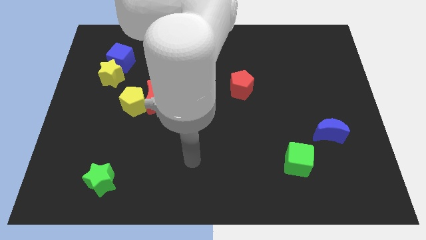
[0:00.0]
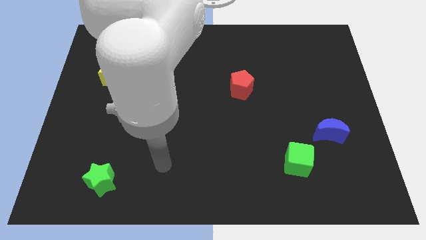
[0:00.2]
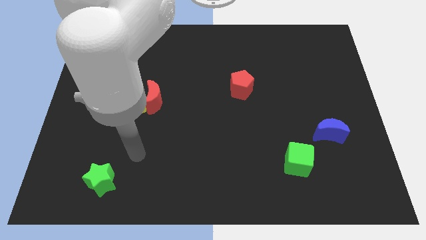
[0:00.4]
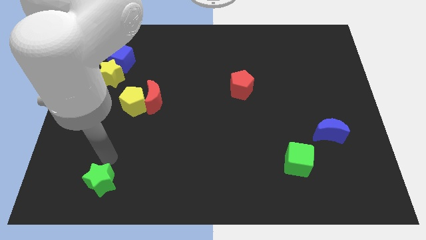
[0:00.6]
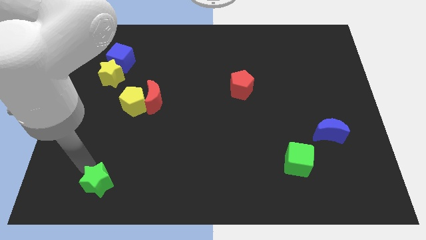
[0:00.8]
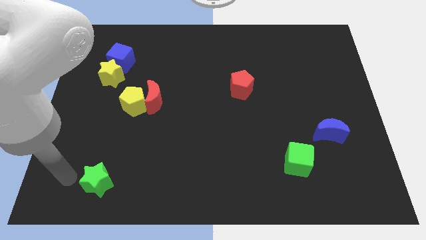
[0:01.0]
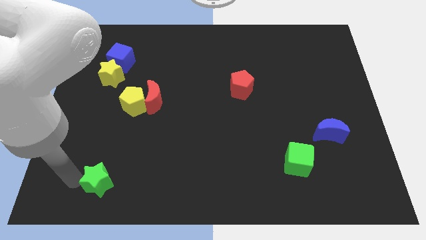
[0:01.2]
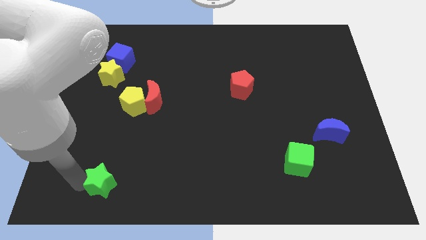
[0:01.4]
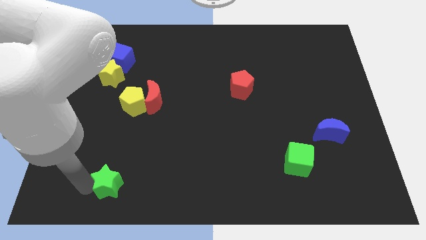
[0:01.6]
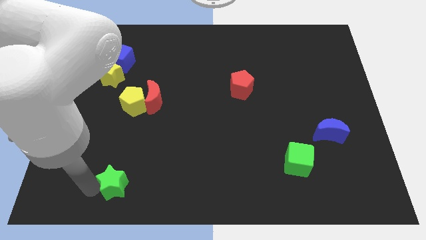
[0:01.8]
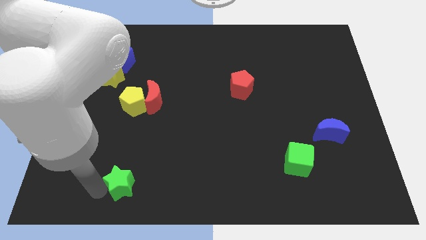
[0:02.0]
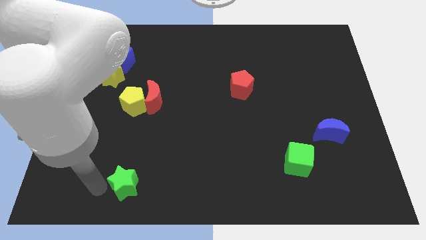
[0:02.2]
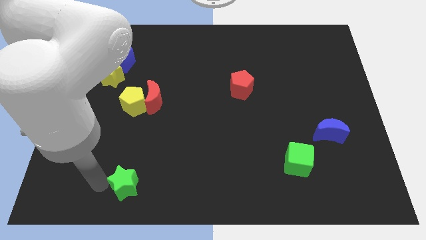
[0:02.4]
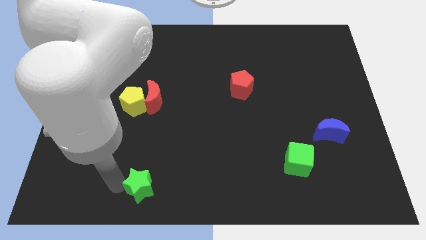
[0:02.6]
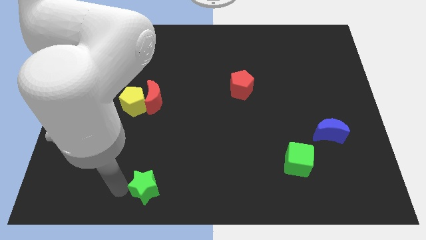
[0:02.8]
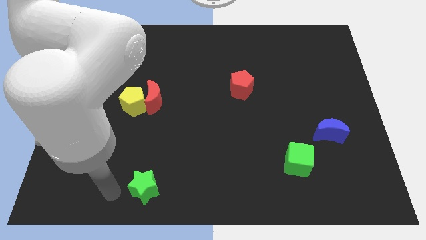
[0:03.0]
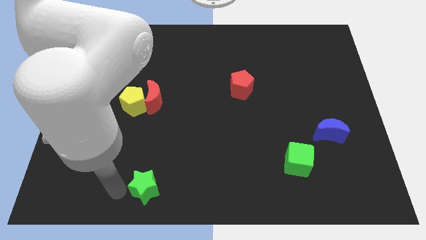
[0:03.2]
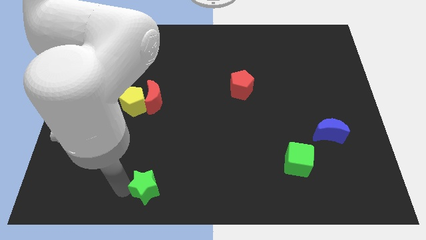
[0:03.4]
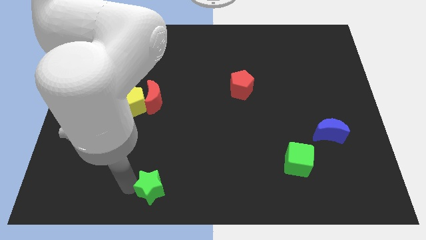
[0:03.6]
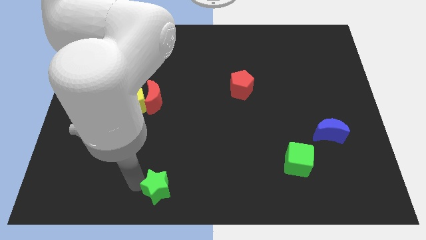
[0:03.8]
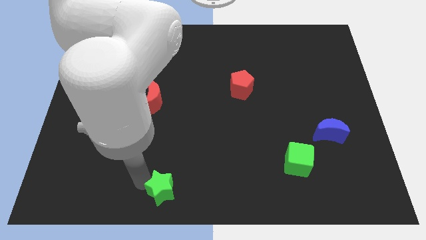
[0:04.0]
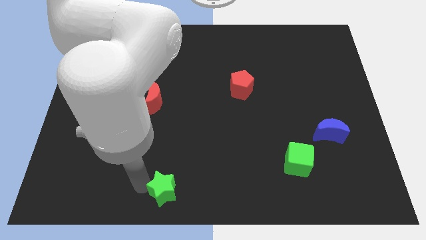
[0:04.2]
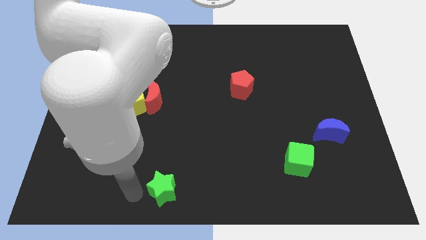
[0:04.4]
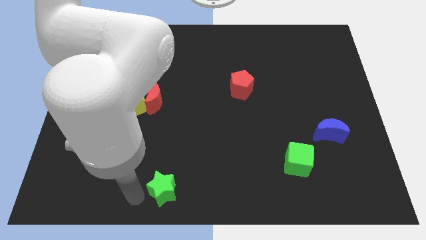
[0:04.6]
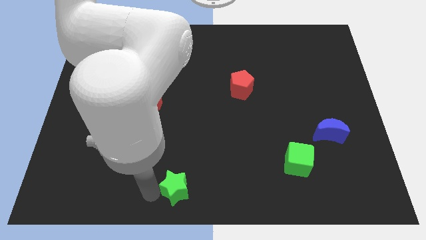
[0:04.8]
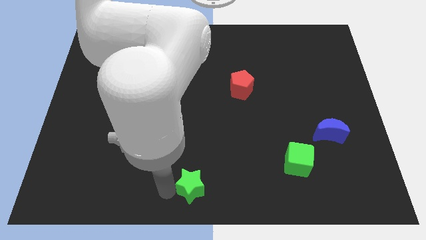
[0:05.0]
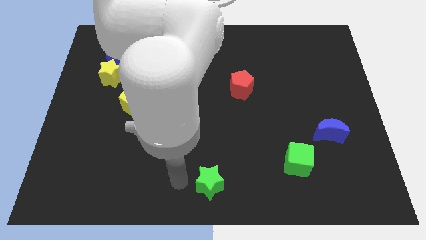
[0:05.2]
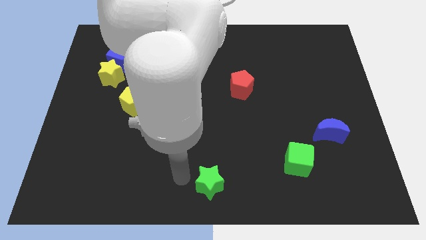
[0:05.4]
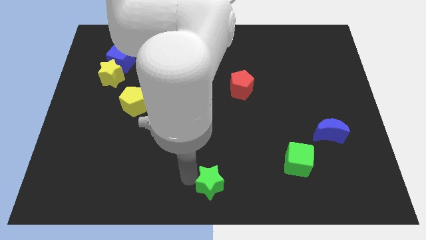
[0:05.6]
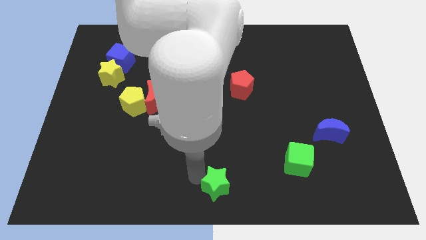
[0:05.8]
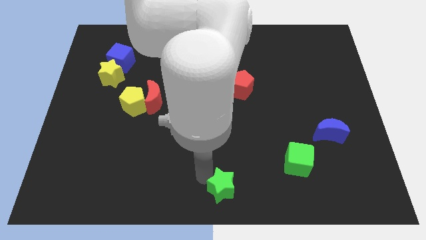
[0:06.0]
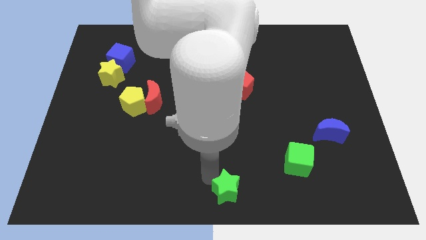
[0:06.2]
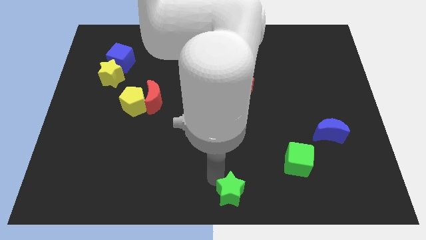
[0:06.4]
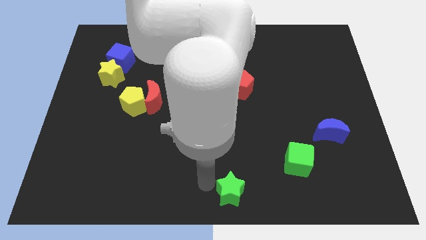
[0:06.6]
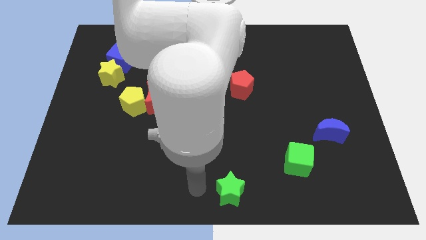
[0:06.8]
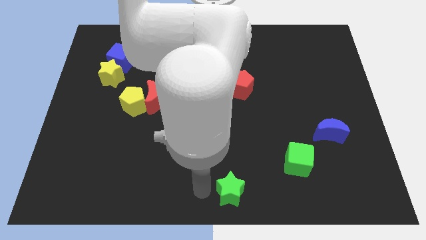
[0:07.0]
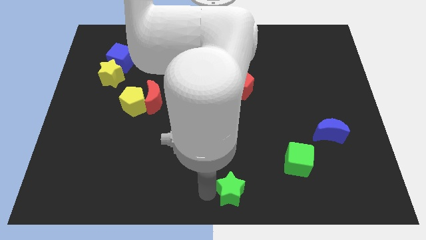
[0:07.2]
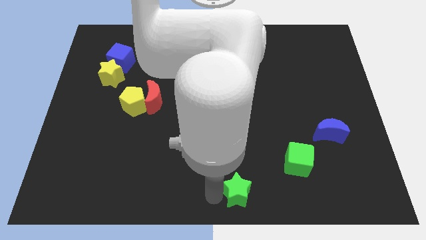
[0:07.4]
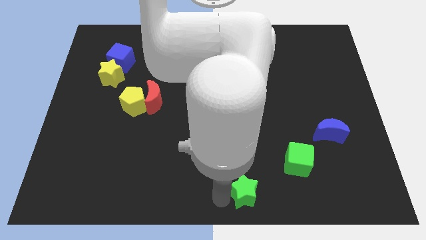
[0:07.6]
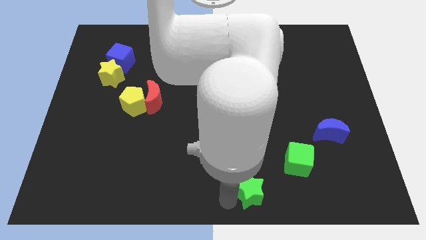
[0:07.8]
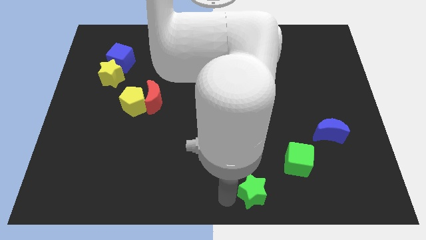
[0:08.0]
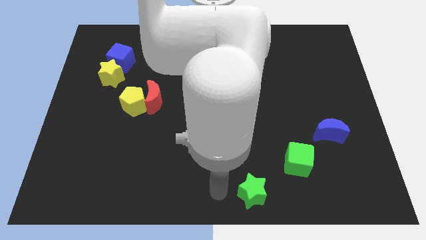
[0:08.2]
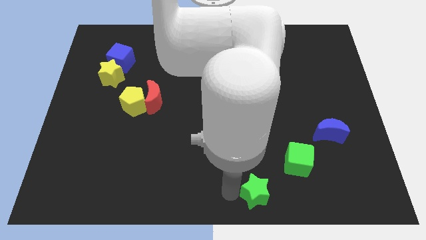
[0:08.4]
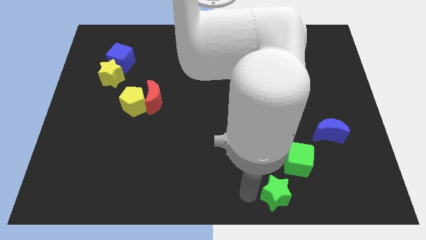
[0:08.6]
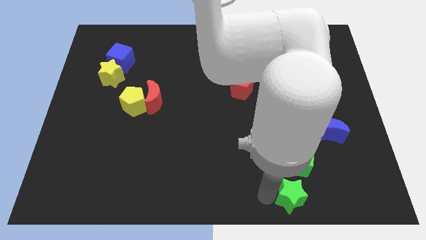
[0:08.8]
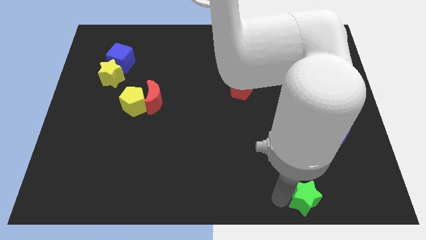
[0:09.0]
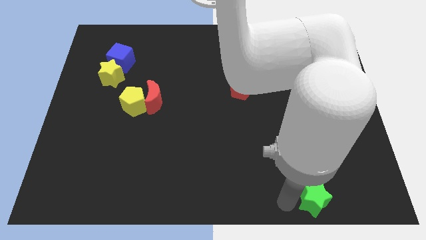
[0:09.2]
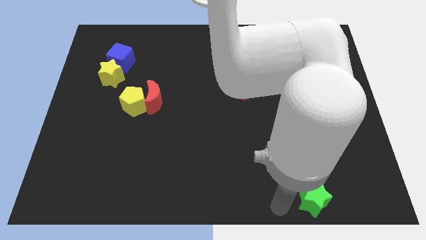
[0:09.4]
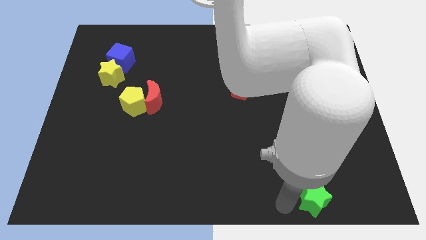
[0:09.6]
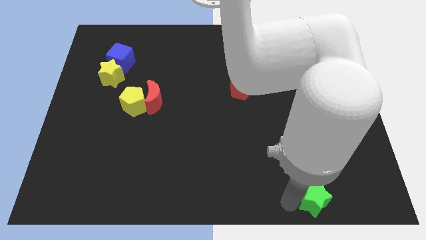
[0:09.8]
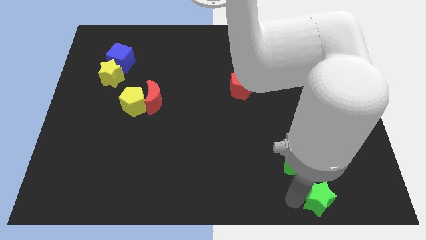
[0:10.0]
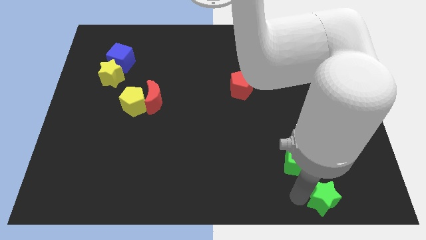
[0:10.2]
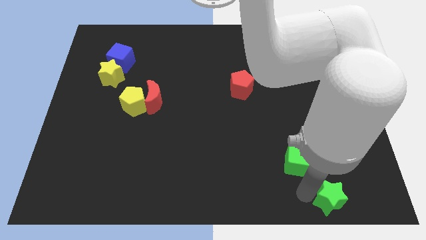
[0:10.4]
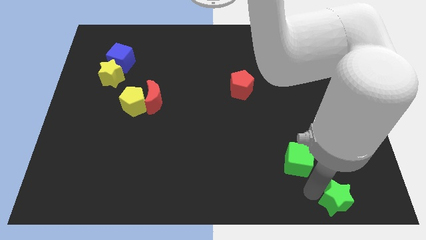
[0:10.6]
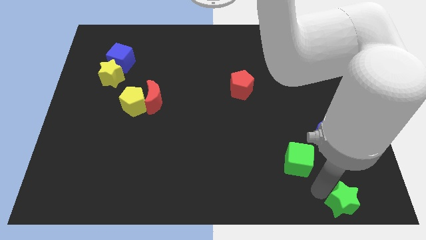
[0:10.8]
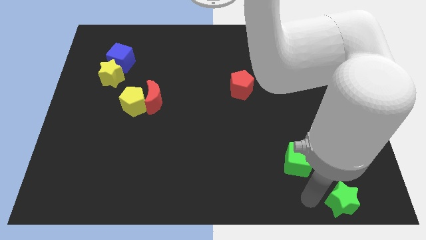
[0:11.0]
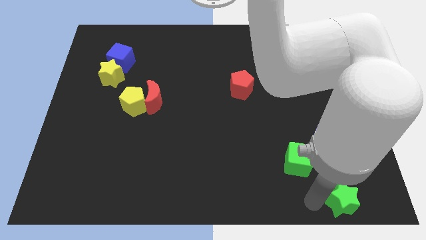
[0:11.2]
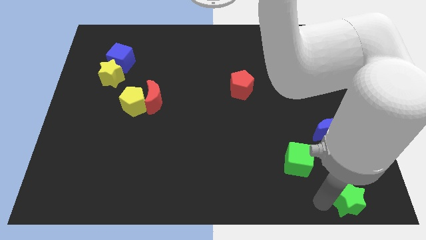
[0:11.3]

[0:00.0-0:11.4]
put the green star to the bottom right corner

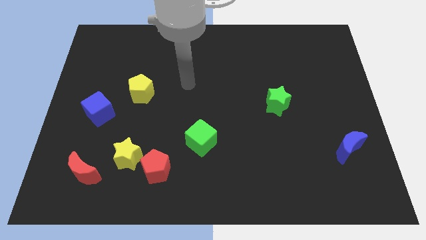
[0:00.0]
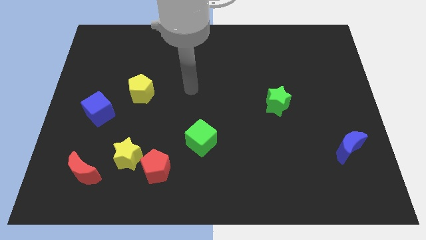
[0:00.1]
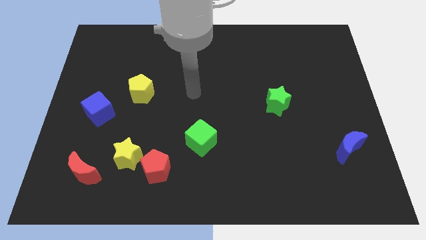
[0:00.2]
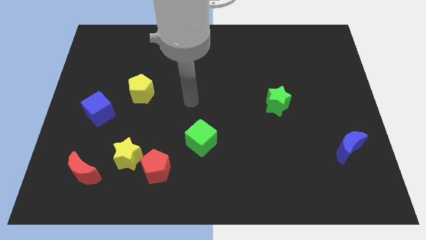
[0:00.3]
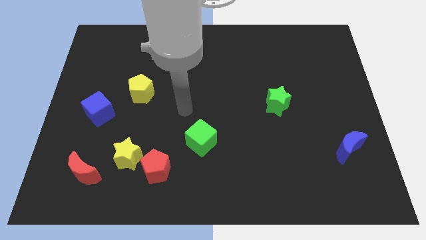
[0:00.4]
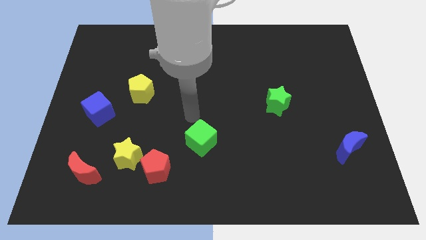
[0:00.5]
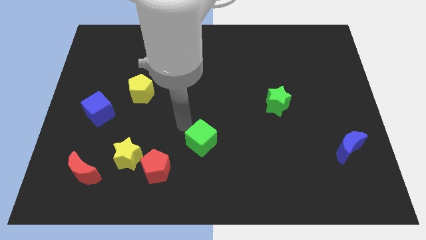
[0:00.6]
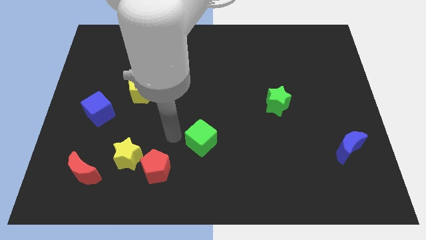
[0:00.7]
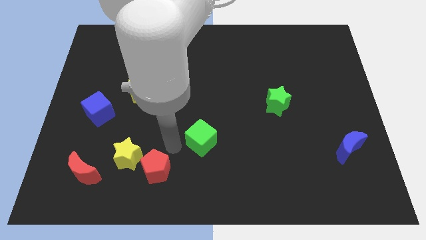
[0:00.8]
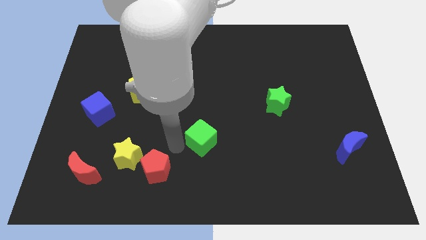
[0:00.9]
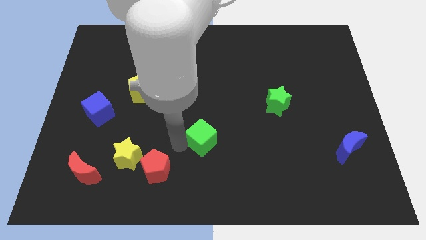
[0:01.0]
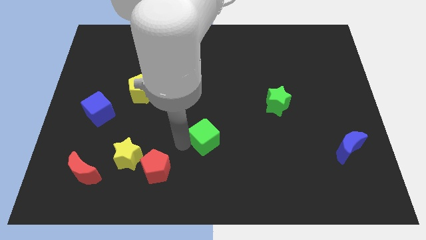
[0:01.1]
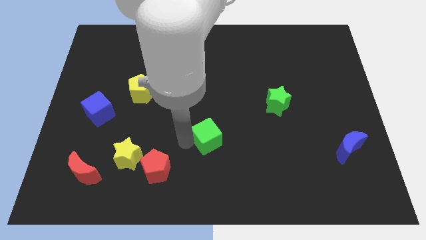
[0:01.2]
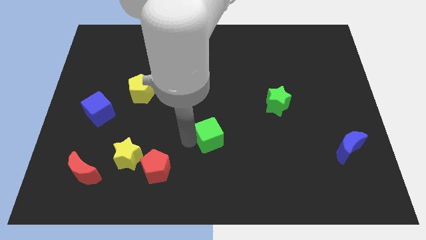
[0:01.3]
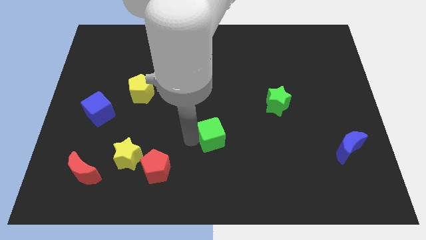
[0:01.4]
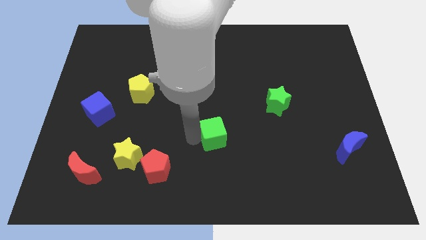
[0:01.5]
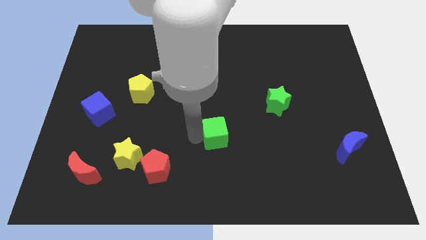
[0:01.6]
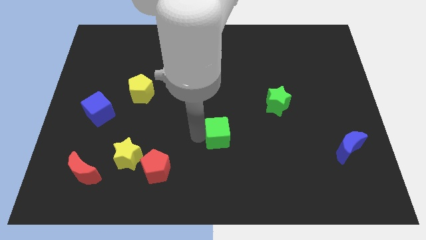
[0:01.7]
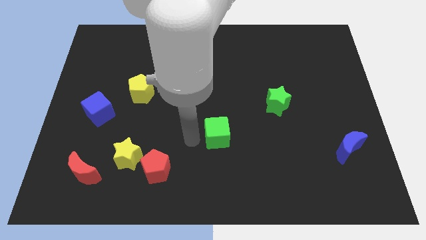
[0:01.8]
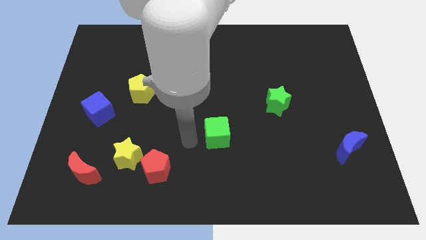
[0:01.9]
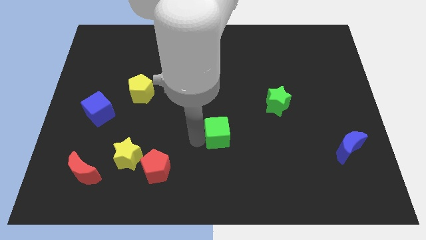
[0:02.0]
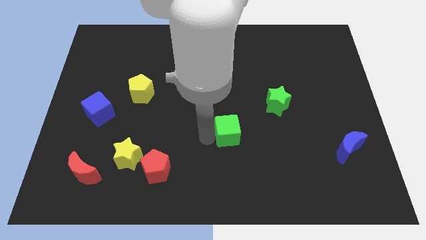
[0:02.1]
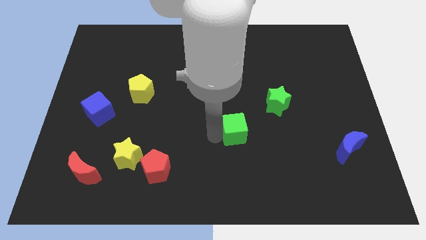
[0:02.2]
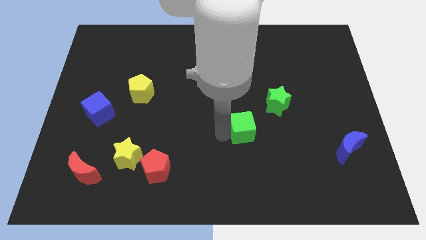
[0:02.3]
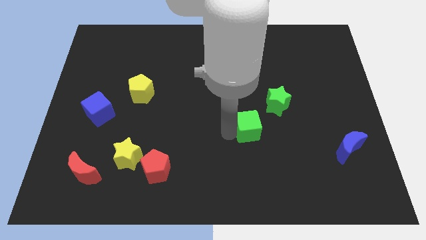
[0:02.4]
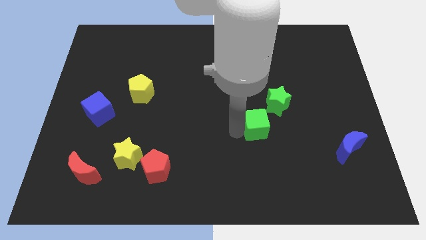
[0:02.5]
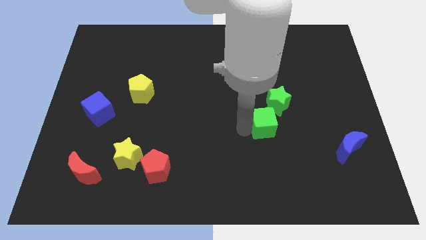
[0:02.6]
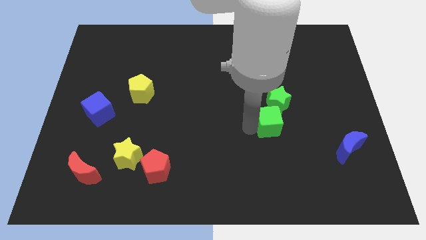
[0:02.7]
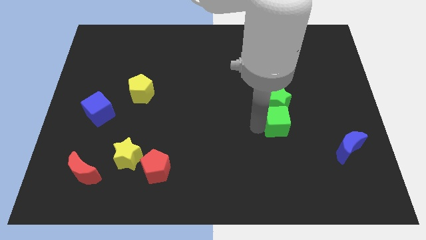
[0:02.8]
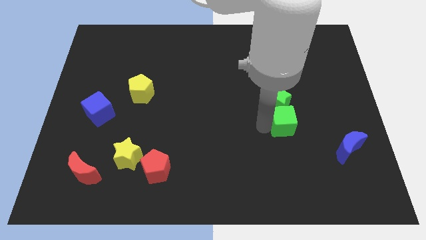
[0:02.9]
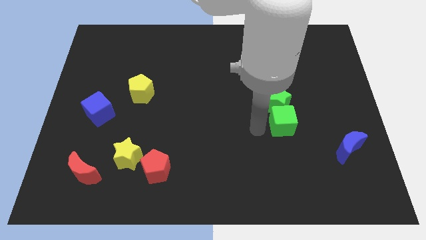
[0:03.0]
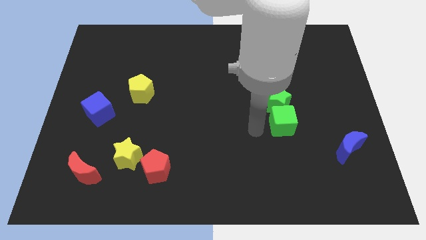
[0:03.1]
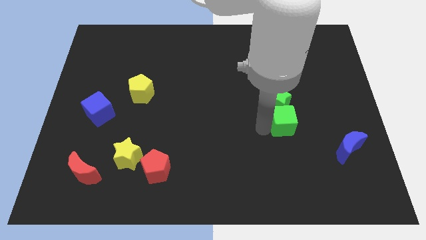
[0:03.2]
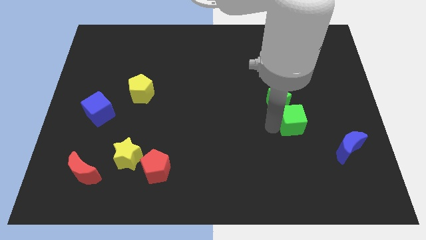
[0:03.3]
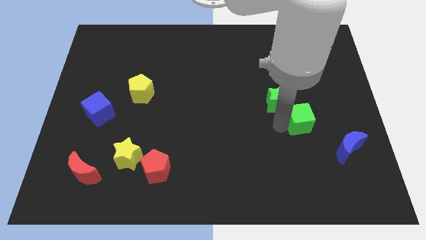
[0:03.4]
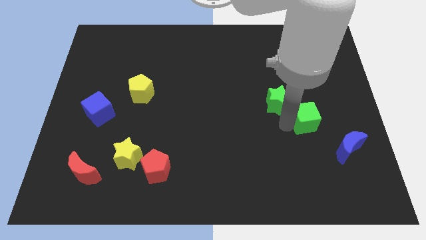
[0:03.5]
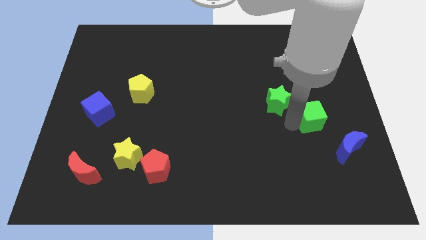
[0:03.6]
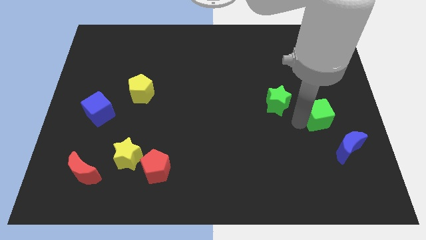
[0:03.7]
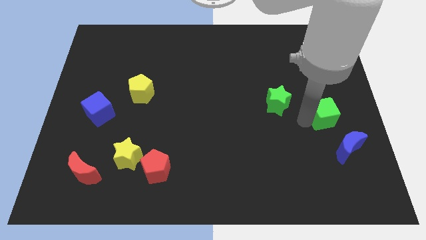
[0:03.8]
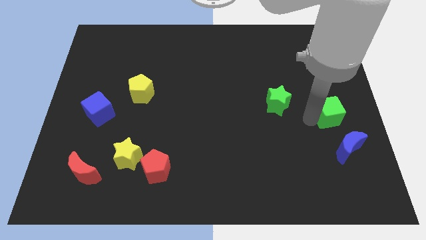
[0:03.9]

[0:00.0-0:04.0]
move the green cube to the right side of the board
